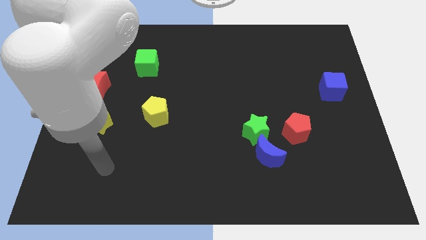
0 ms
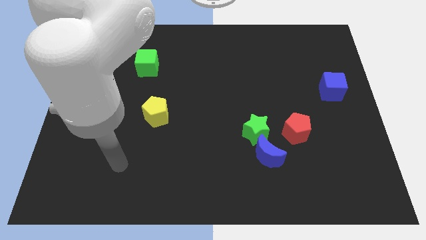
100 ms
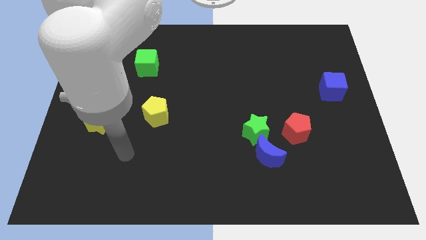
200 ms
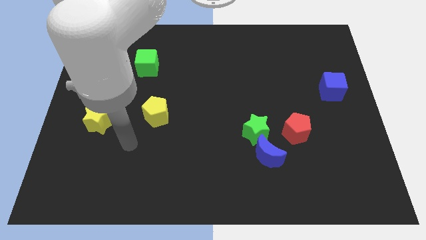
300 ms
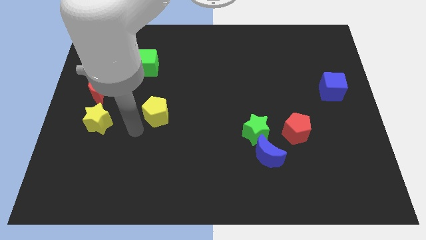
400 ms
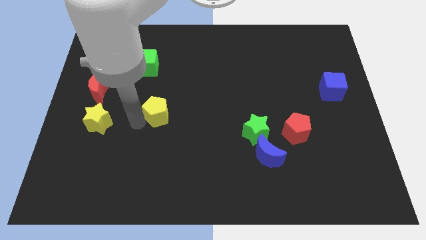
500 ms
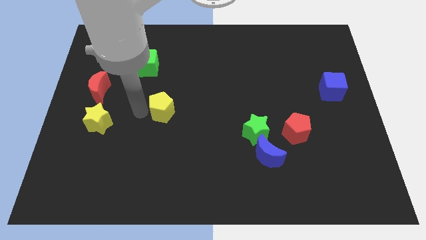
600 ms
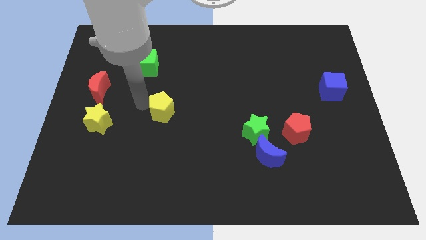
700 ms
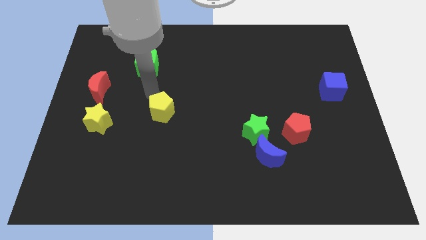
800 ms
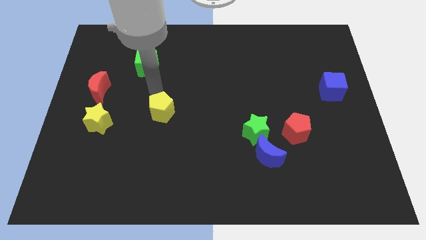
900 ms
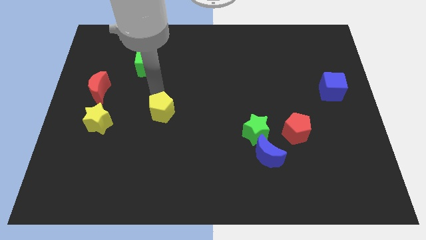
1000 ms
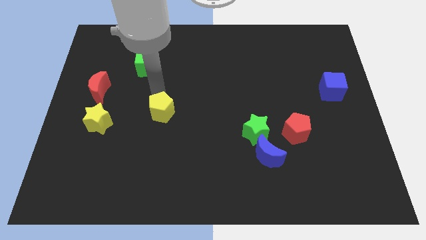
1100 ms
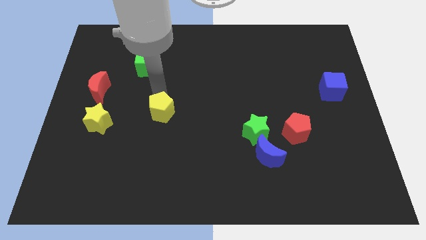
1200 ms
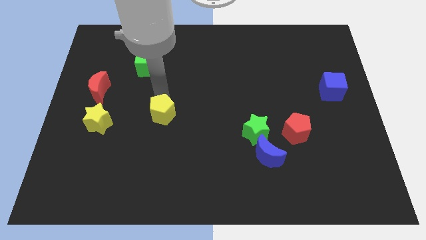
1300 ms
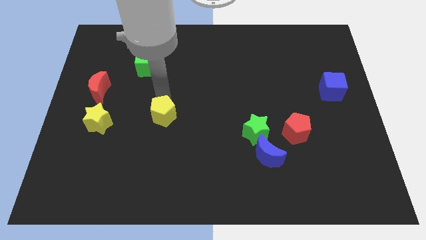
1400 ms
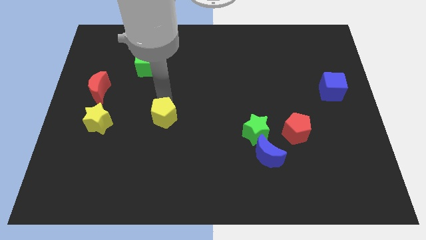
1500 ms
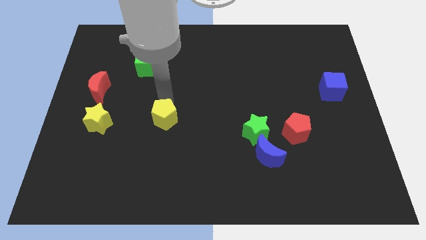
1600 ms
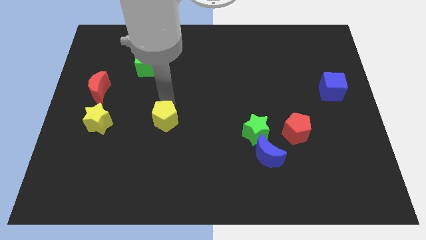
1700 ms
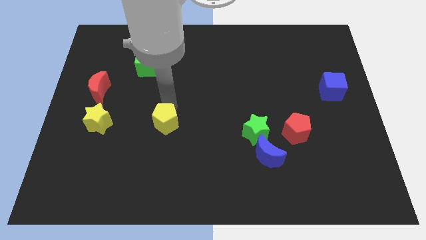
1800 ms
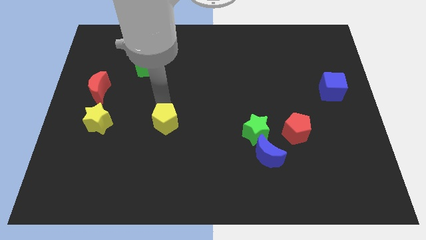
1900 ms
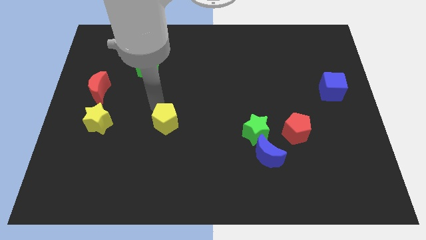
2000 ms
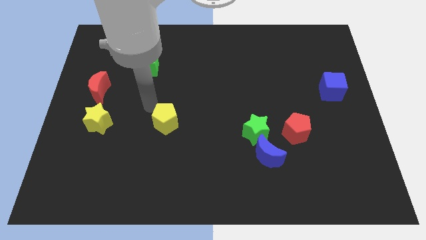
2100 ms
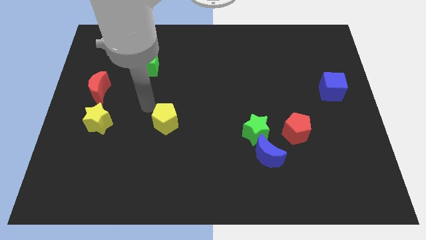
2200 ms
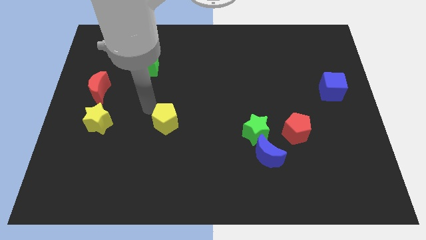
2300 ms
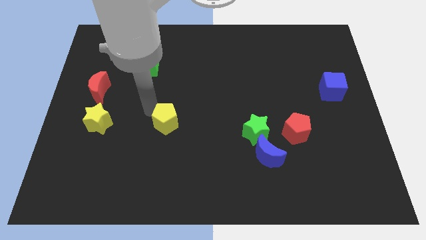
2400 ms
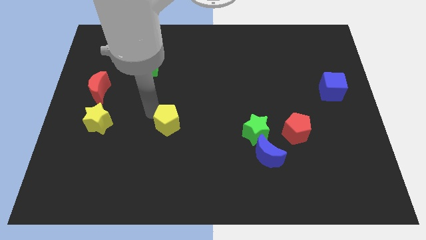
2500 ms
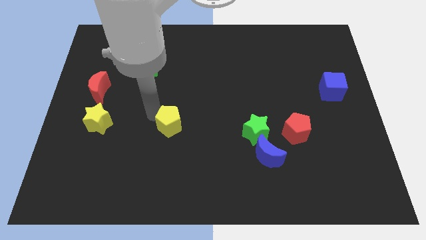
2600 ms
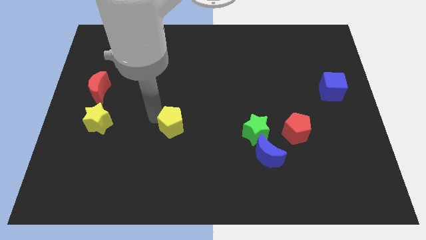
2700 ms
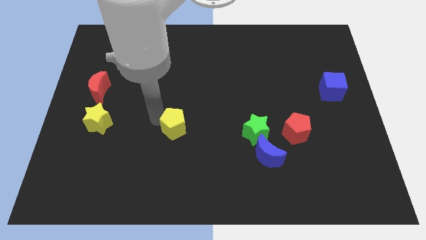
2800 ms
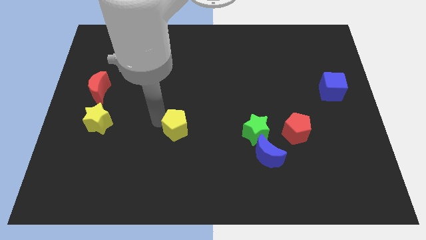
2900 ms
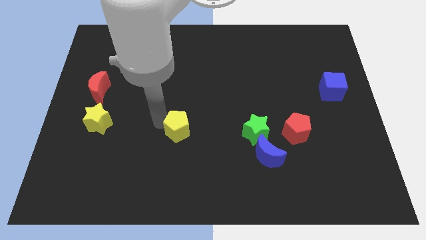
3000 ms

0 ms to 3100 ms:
move the yellow pentagon down and to the right a little

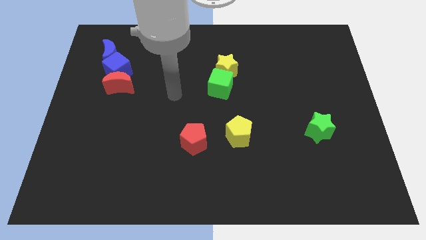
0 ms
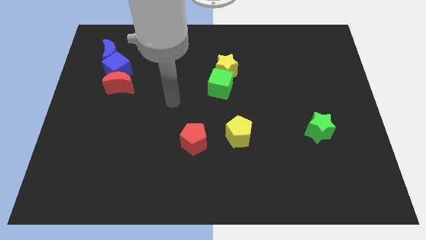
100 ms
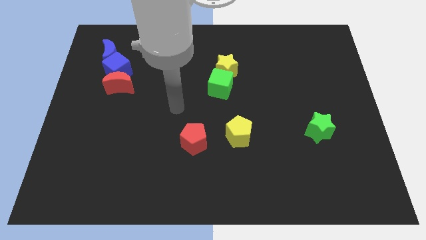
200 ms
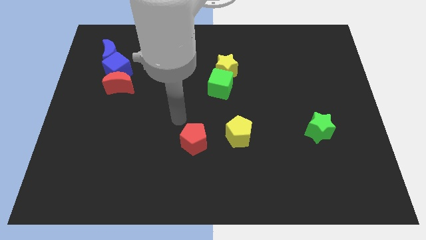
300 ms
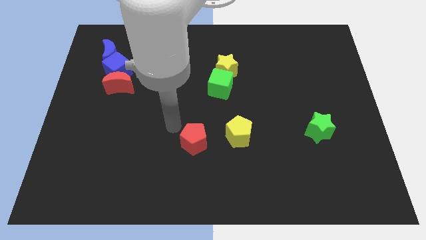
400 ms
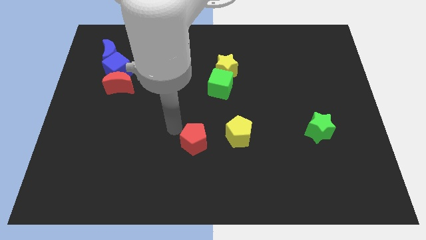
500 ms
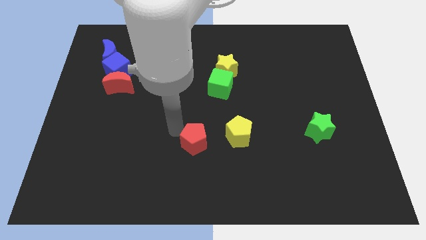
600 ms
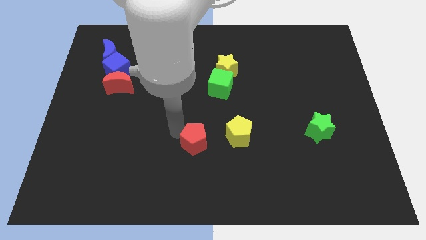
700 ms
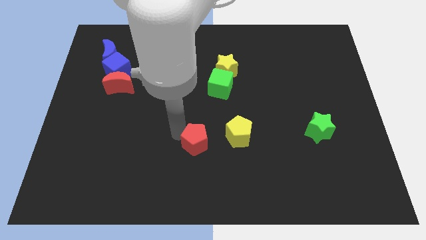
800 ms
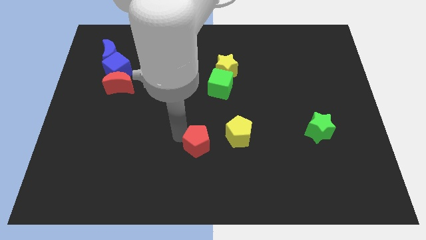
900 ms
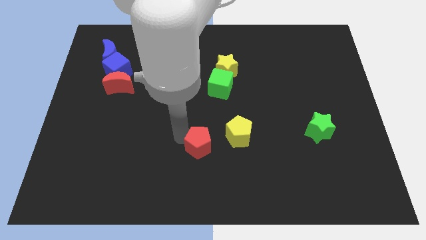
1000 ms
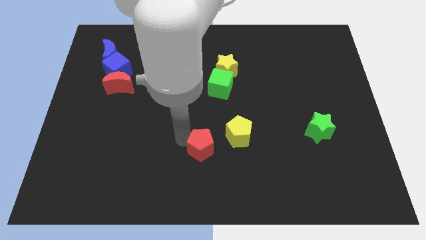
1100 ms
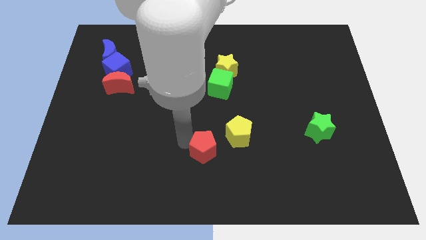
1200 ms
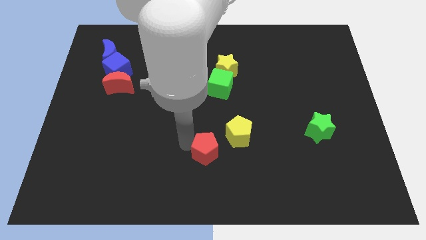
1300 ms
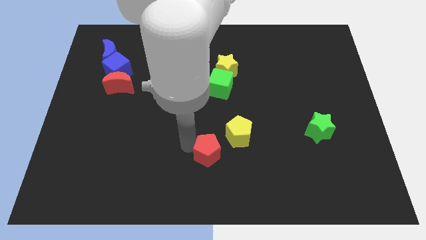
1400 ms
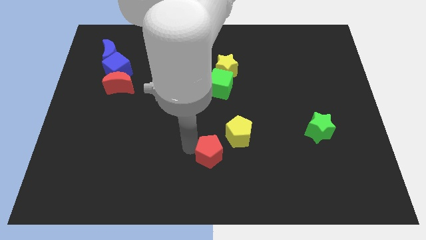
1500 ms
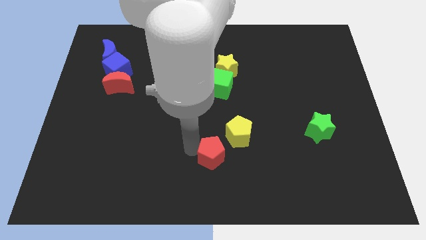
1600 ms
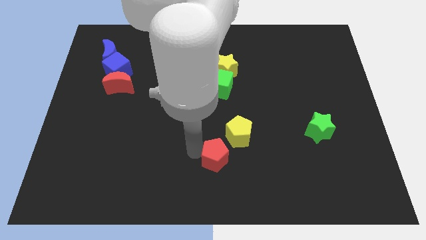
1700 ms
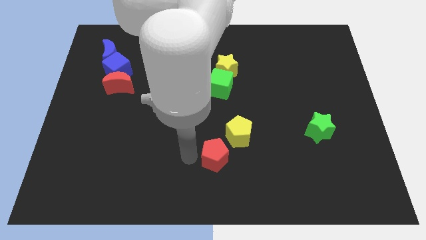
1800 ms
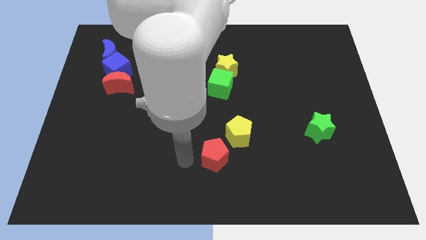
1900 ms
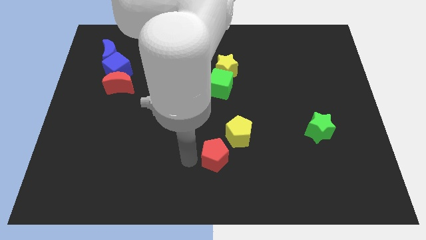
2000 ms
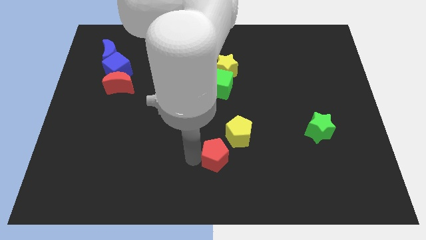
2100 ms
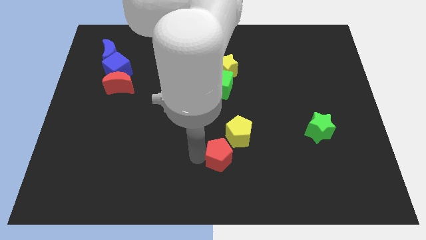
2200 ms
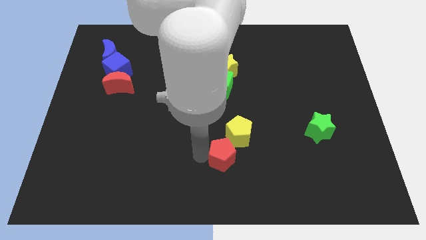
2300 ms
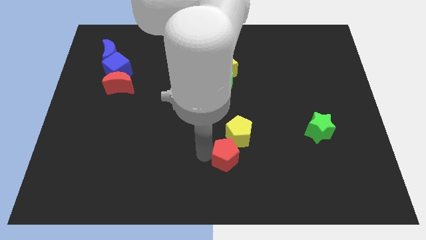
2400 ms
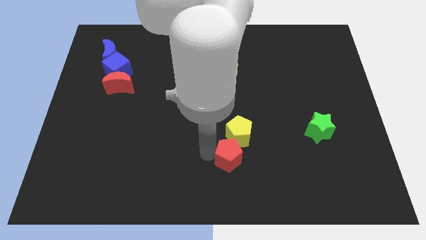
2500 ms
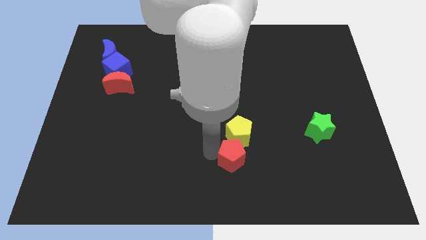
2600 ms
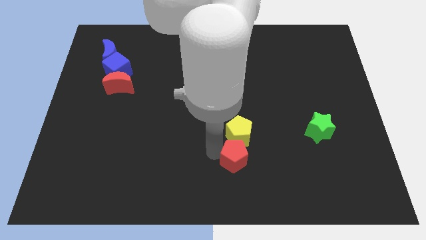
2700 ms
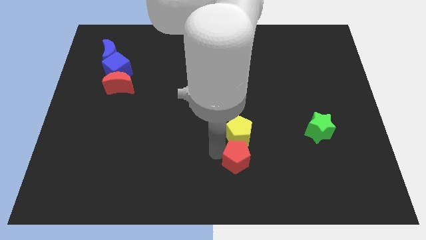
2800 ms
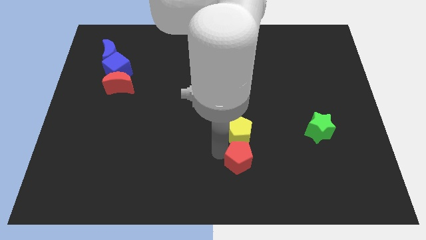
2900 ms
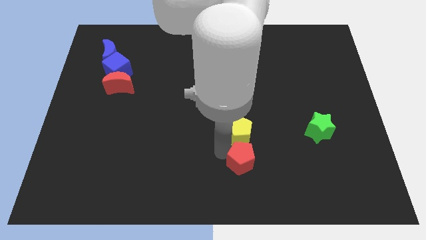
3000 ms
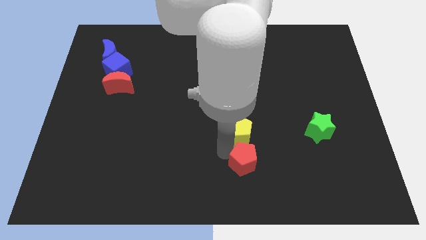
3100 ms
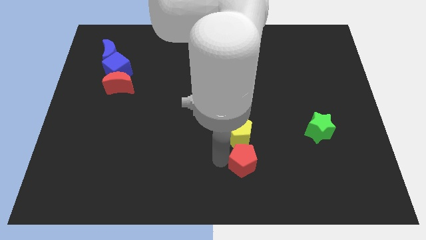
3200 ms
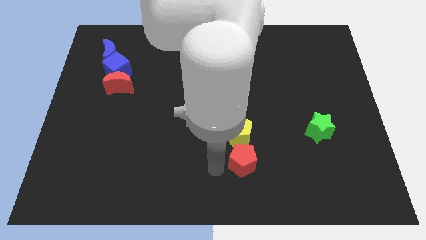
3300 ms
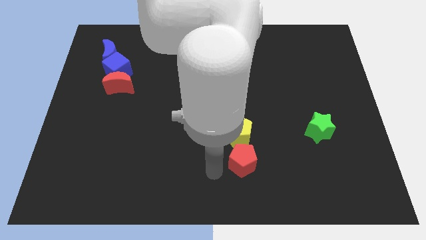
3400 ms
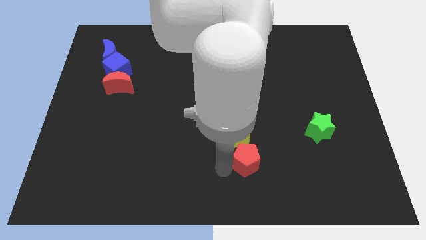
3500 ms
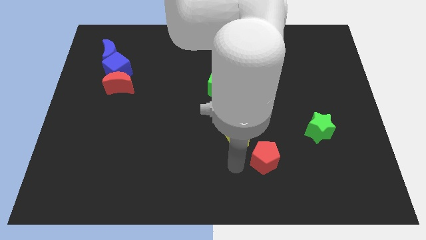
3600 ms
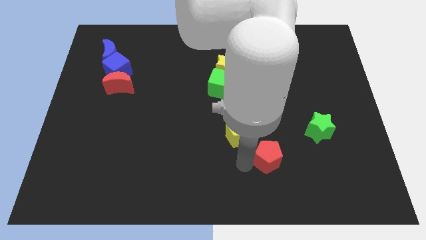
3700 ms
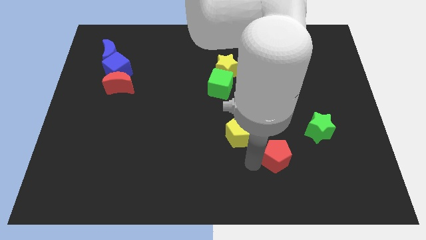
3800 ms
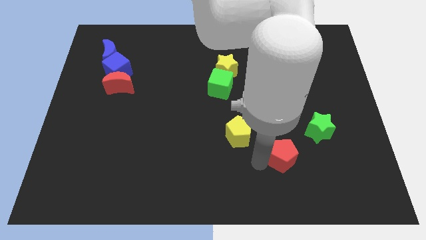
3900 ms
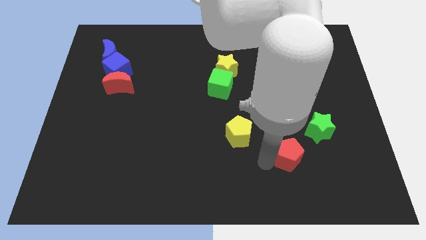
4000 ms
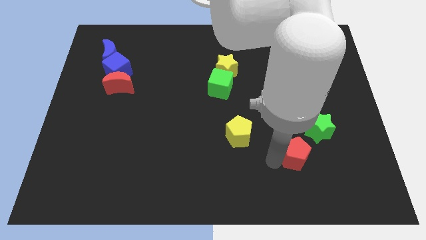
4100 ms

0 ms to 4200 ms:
slide the red pentagon right

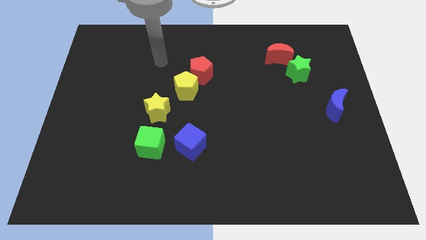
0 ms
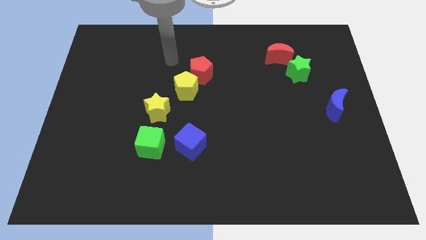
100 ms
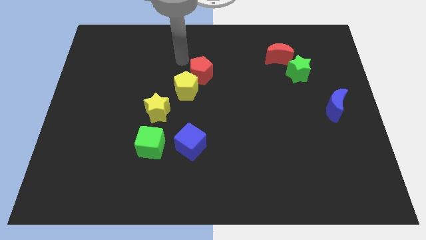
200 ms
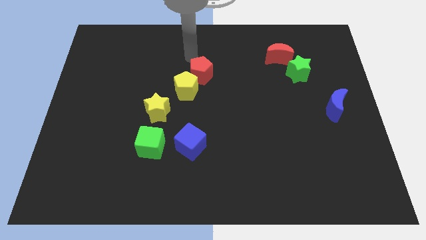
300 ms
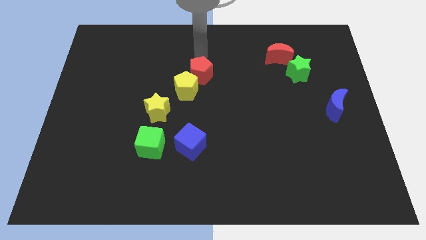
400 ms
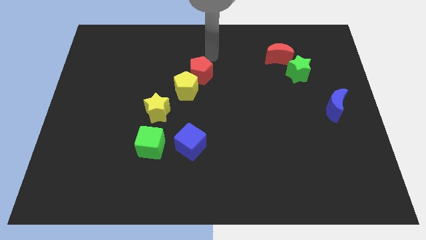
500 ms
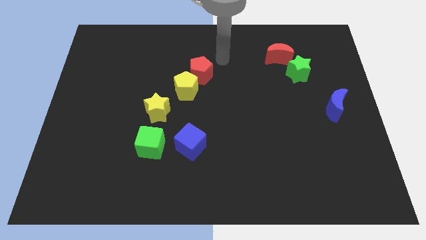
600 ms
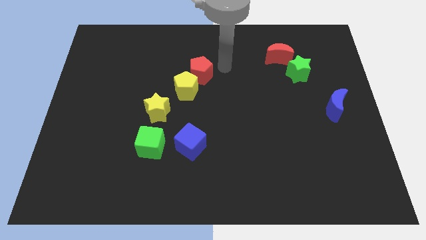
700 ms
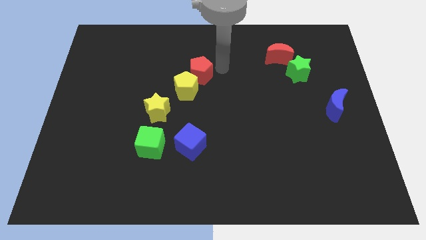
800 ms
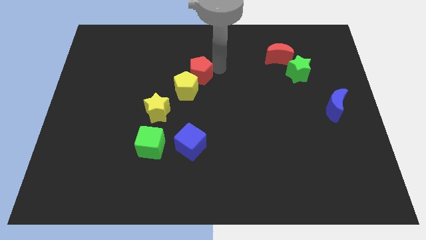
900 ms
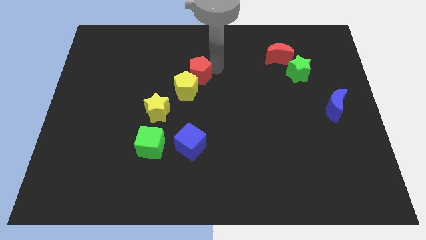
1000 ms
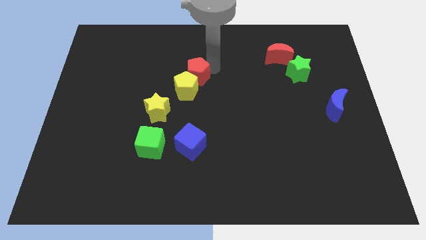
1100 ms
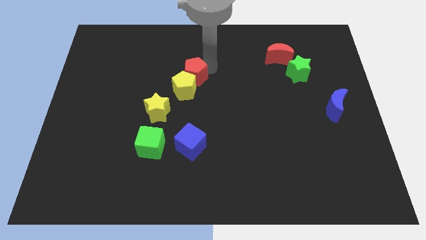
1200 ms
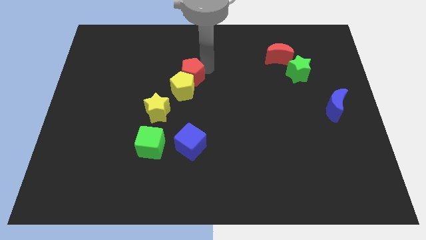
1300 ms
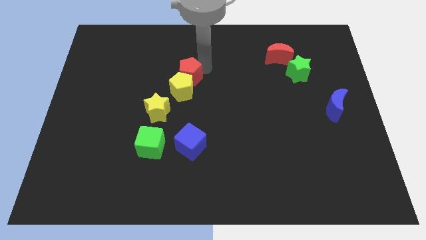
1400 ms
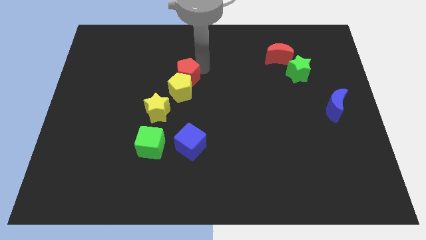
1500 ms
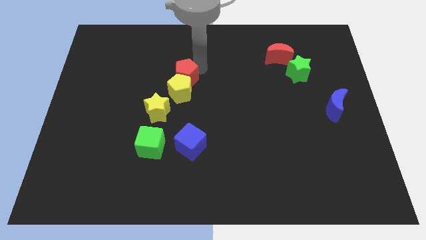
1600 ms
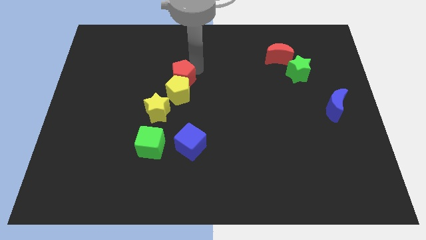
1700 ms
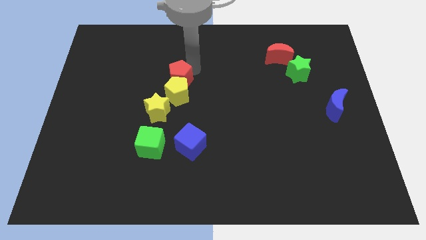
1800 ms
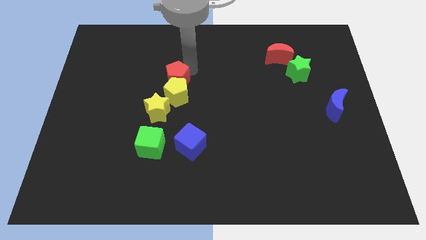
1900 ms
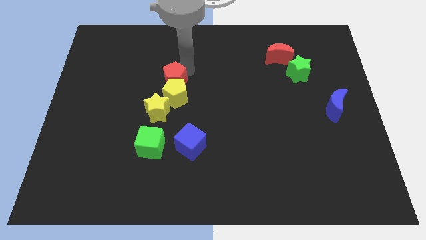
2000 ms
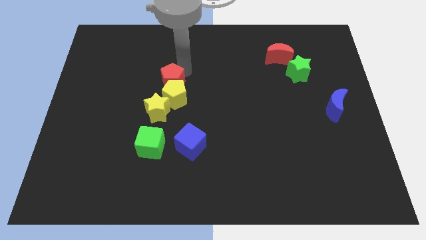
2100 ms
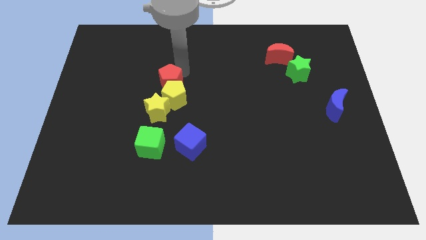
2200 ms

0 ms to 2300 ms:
slightly slide the red pentagon downwards and left diagonally
